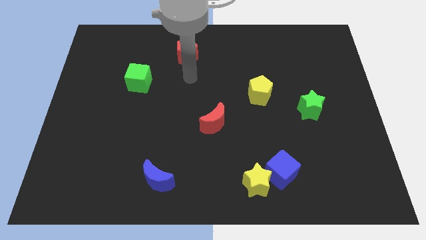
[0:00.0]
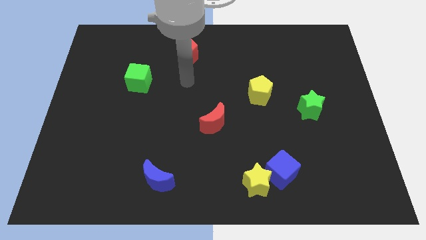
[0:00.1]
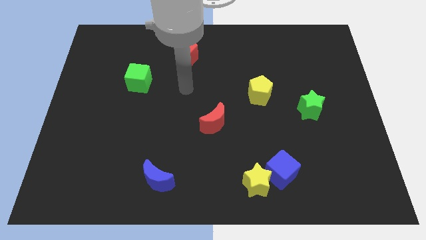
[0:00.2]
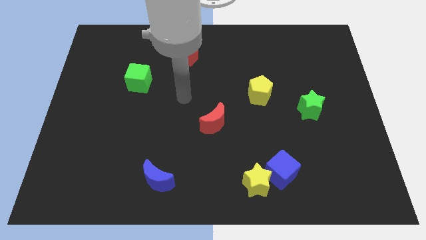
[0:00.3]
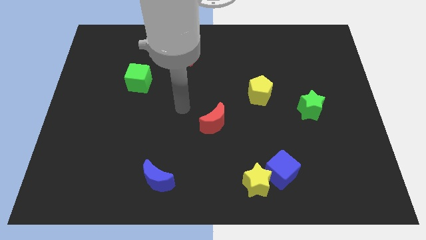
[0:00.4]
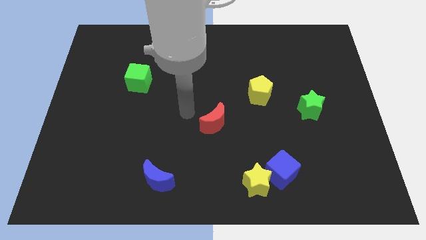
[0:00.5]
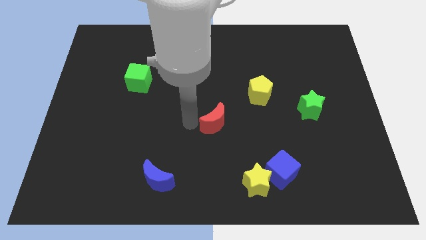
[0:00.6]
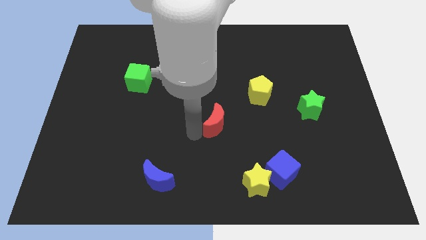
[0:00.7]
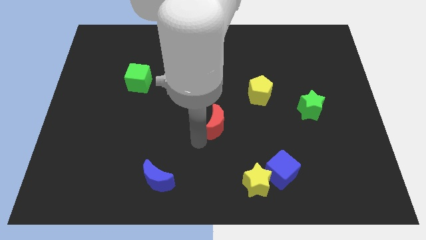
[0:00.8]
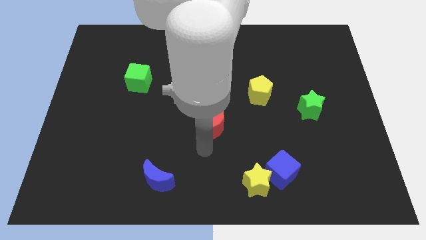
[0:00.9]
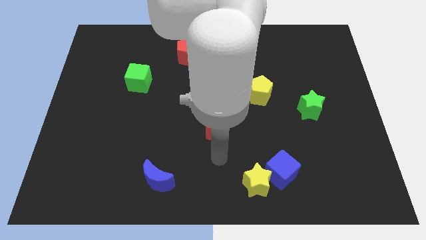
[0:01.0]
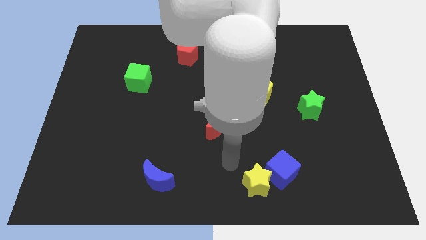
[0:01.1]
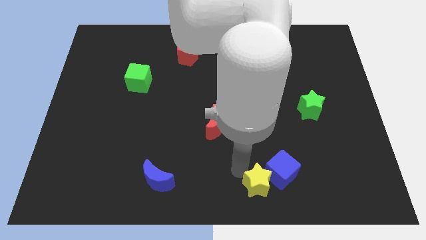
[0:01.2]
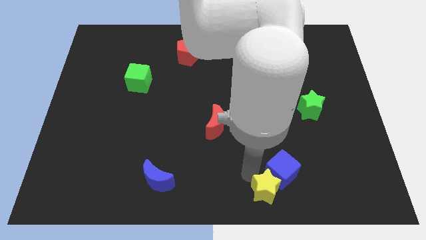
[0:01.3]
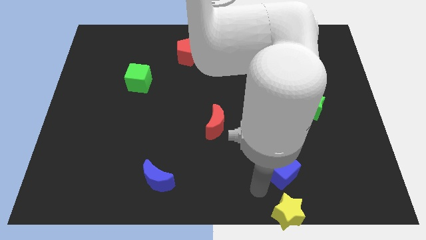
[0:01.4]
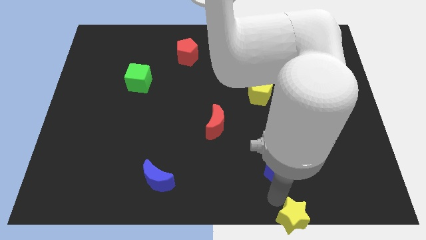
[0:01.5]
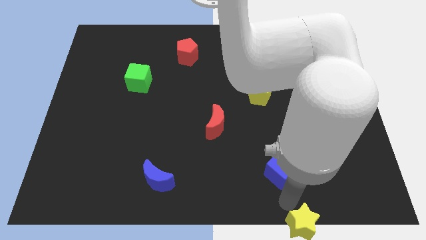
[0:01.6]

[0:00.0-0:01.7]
move the blue cube away from the yellow star

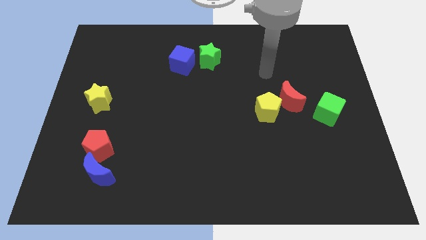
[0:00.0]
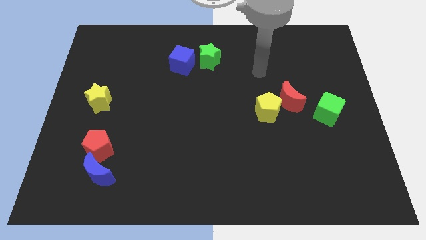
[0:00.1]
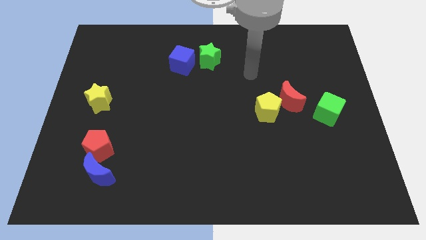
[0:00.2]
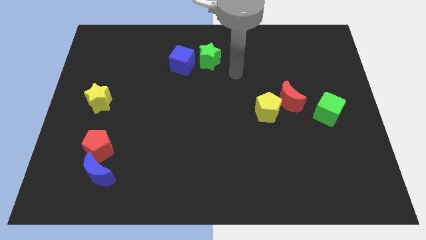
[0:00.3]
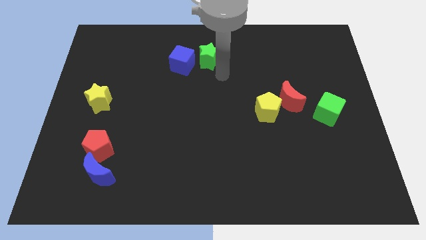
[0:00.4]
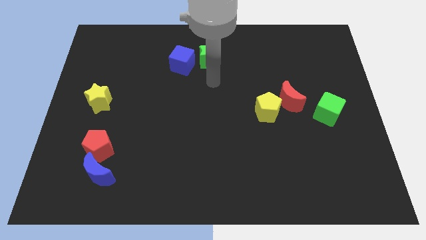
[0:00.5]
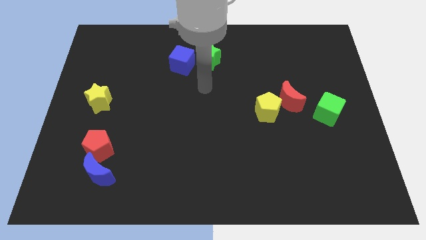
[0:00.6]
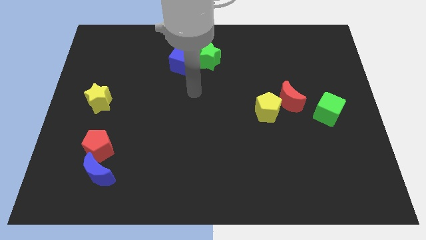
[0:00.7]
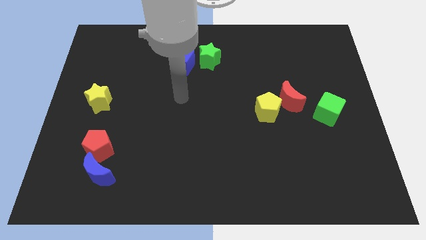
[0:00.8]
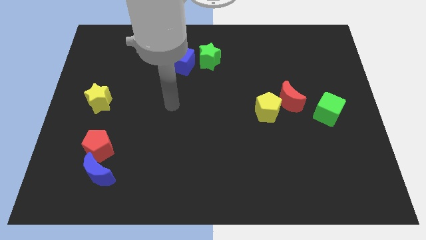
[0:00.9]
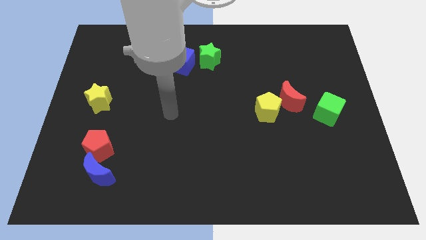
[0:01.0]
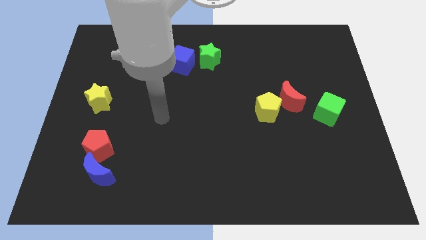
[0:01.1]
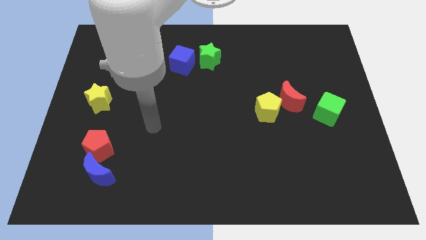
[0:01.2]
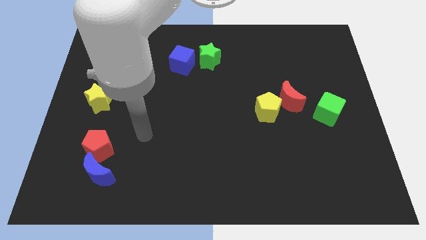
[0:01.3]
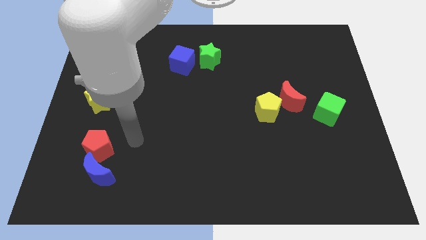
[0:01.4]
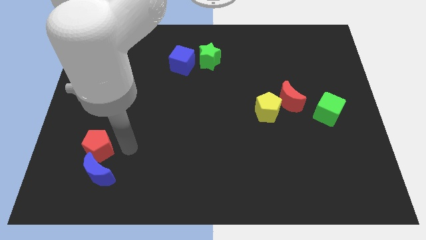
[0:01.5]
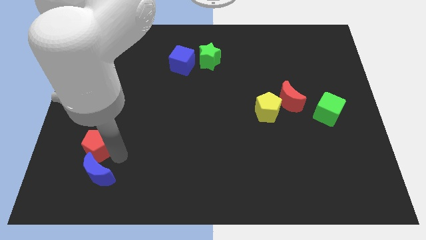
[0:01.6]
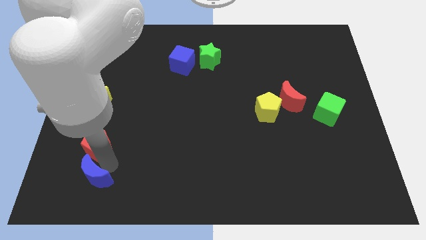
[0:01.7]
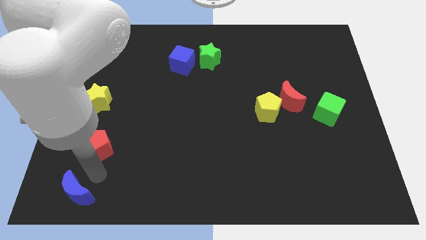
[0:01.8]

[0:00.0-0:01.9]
move the red pentagon away from the blue moon

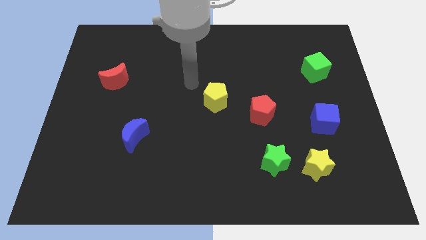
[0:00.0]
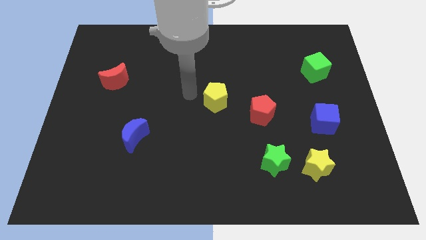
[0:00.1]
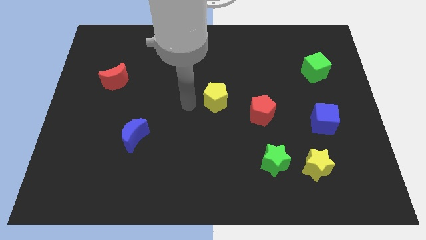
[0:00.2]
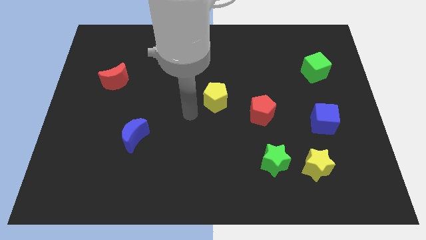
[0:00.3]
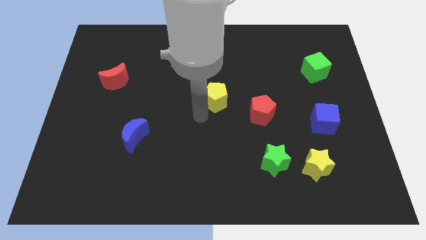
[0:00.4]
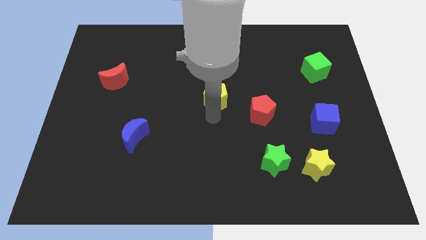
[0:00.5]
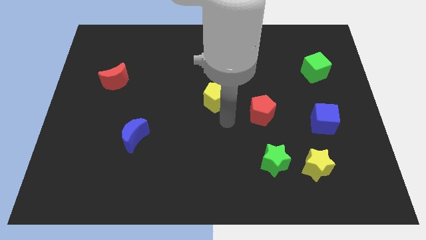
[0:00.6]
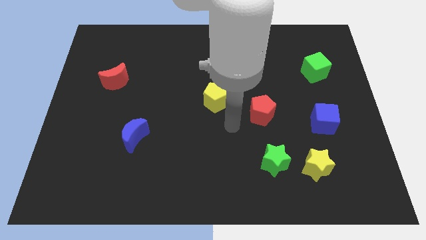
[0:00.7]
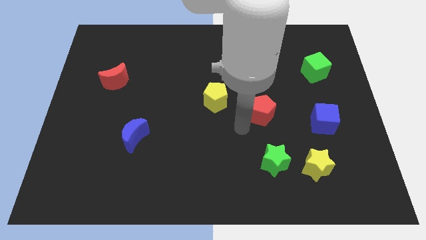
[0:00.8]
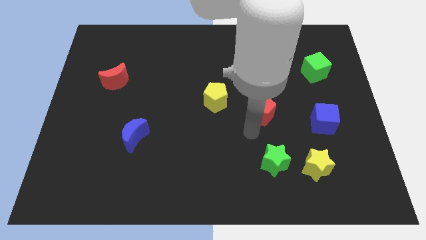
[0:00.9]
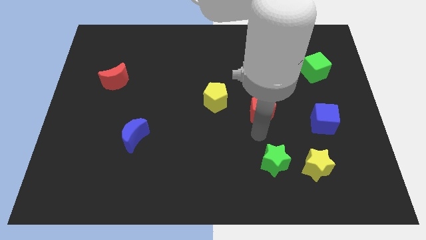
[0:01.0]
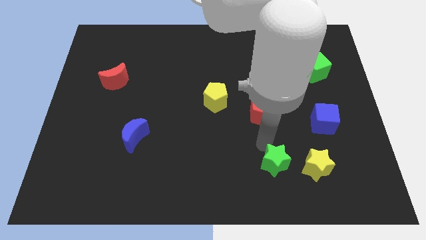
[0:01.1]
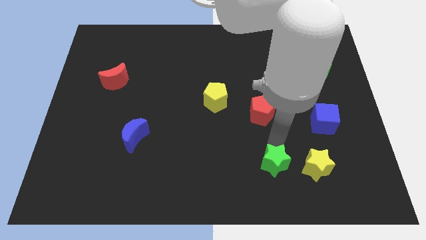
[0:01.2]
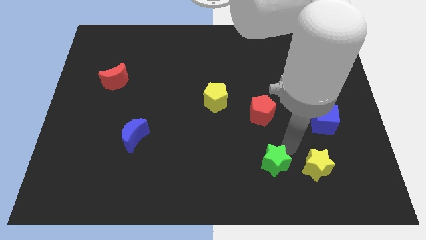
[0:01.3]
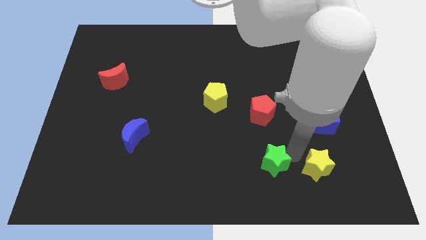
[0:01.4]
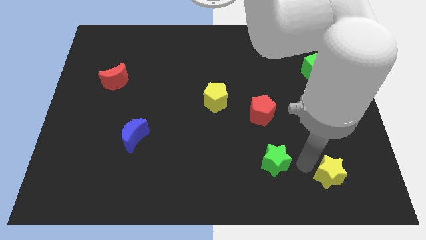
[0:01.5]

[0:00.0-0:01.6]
move the green star away from the yellow star

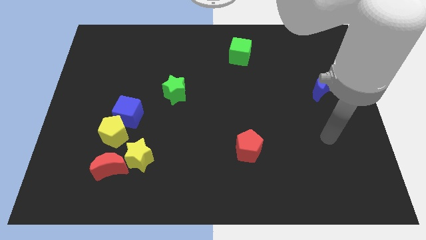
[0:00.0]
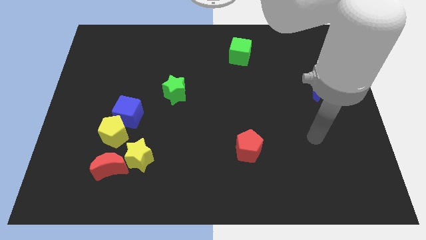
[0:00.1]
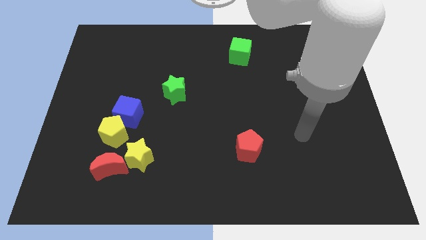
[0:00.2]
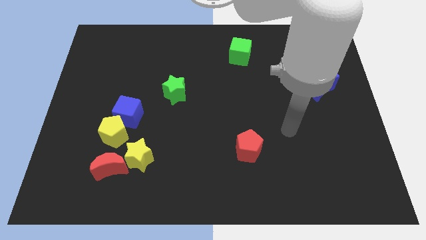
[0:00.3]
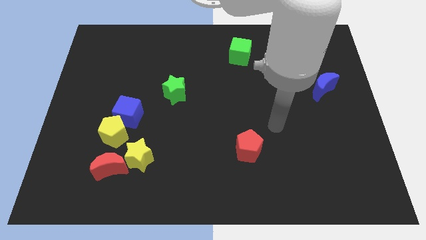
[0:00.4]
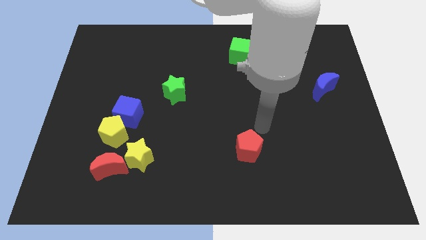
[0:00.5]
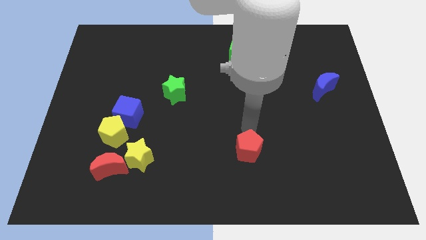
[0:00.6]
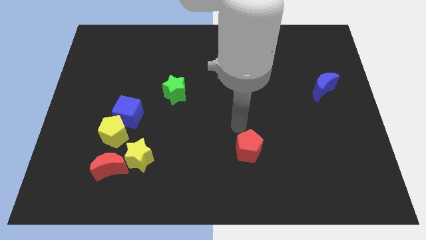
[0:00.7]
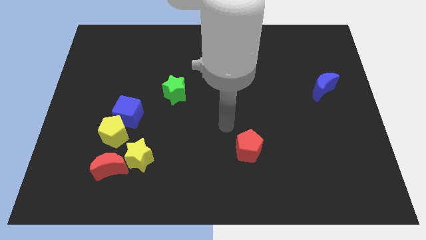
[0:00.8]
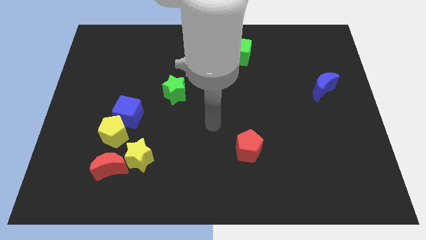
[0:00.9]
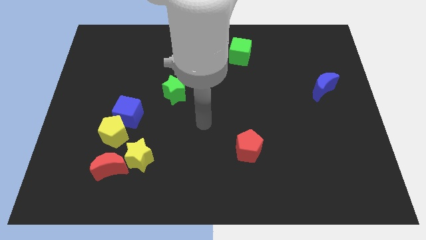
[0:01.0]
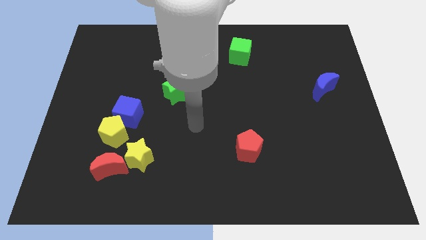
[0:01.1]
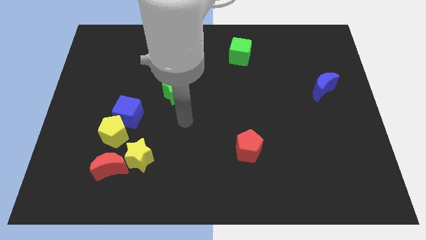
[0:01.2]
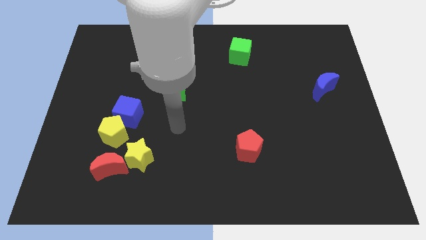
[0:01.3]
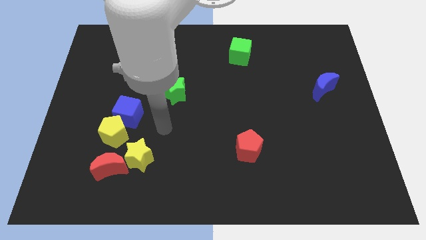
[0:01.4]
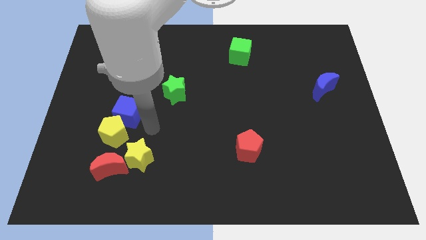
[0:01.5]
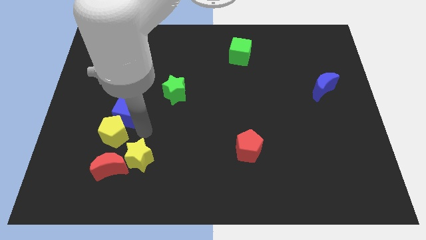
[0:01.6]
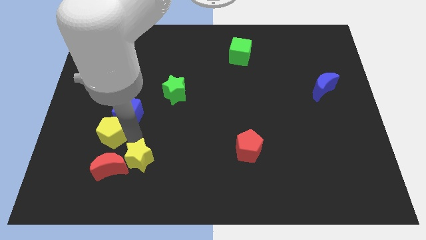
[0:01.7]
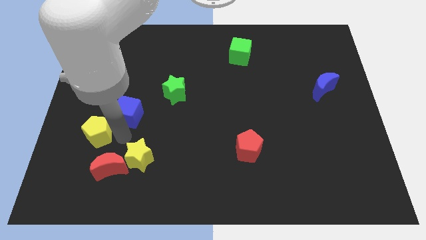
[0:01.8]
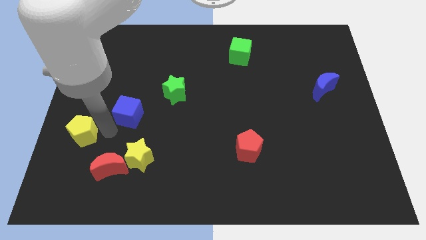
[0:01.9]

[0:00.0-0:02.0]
pull the blue cube apart from the yellow pentagon

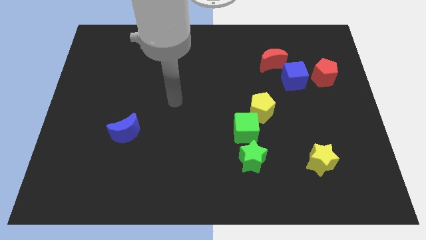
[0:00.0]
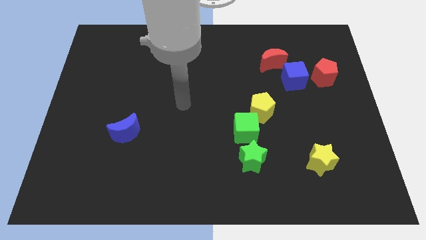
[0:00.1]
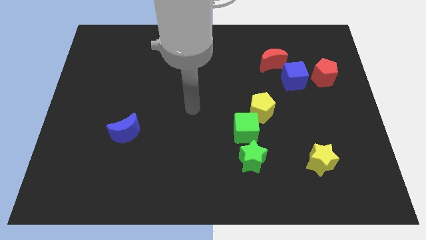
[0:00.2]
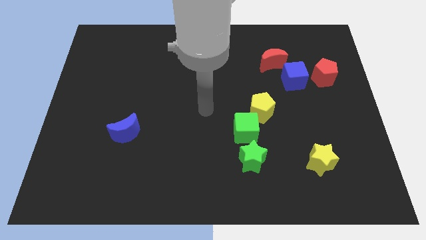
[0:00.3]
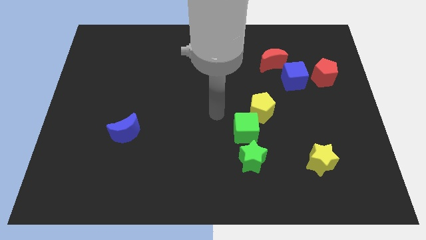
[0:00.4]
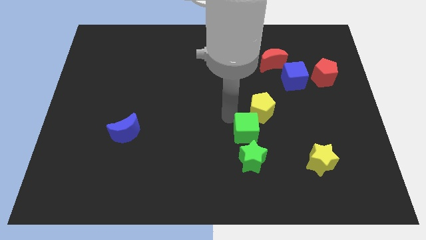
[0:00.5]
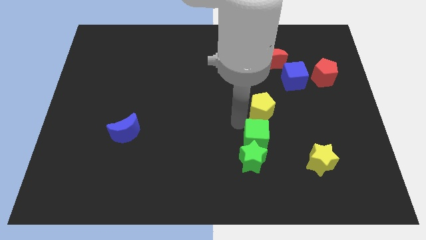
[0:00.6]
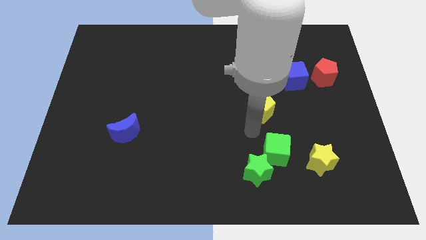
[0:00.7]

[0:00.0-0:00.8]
pull the yellow pentagon apart from the green cube

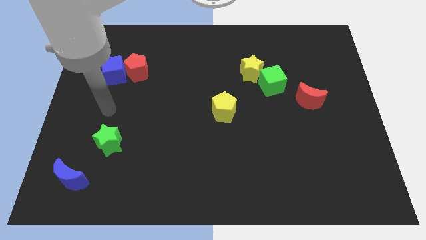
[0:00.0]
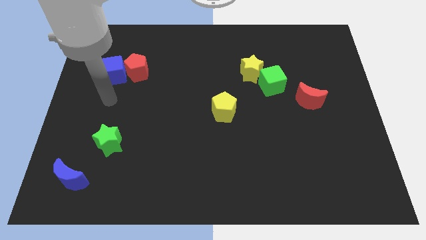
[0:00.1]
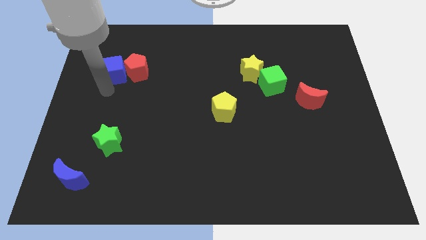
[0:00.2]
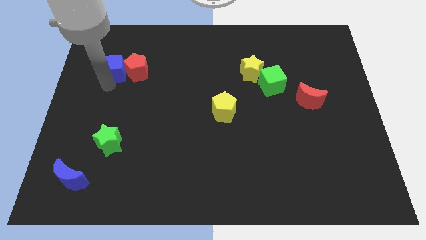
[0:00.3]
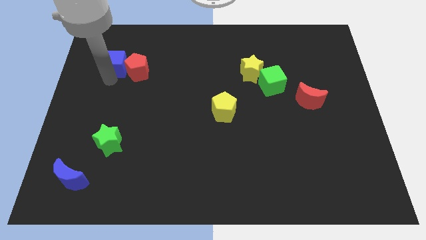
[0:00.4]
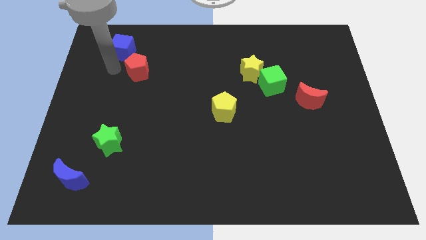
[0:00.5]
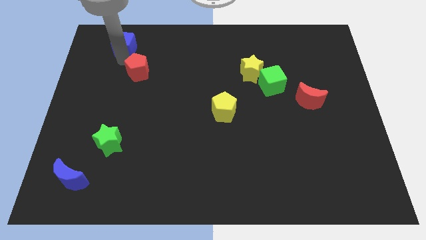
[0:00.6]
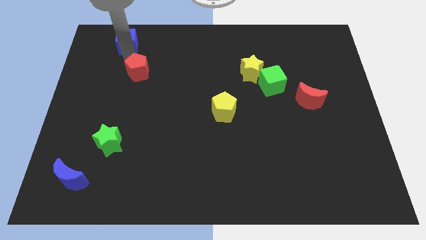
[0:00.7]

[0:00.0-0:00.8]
move the red pentagon away from the blue cube

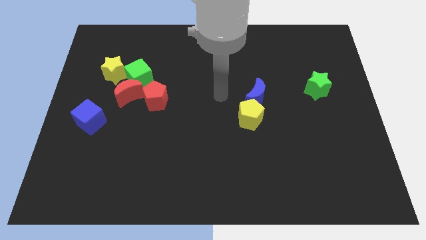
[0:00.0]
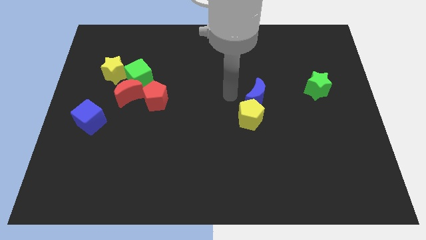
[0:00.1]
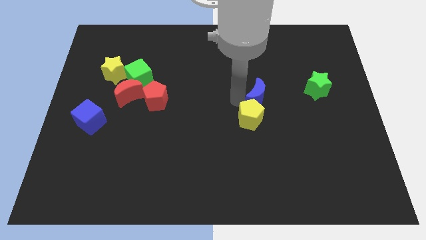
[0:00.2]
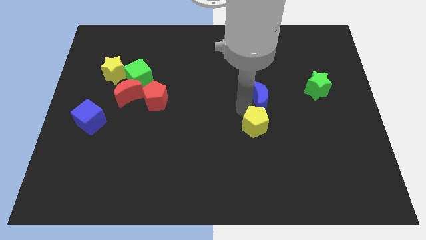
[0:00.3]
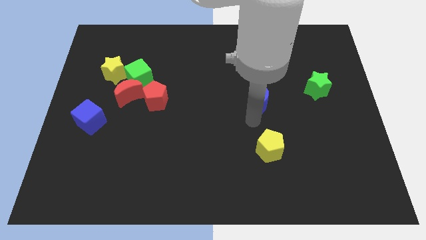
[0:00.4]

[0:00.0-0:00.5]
move the blue moon away from the yellow pentagon
